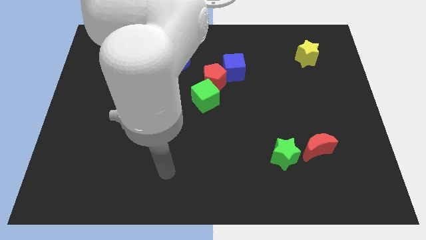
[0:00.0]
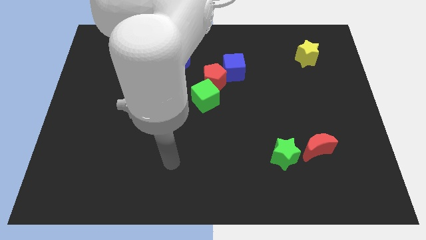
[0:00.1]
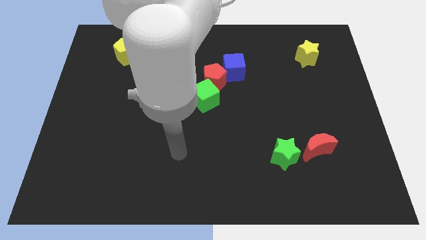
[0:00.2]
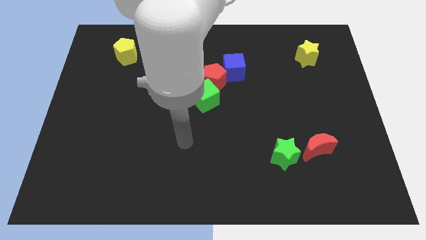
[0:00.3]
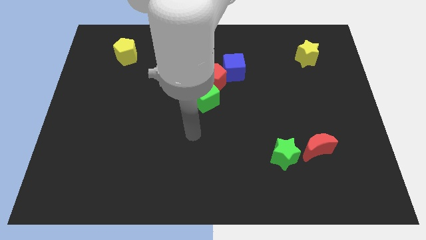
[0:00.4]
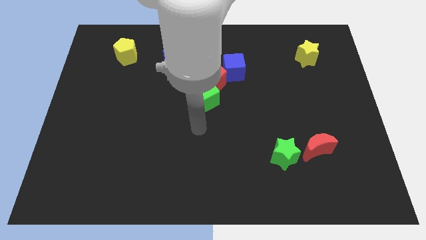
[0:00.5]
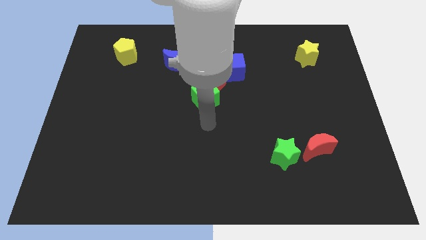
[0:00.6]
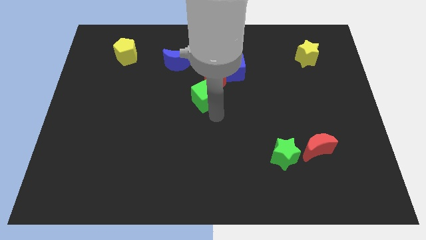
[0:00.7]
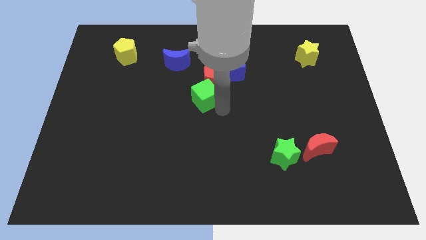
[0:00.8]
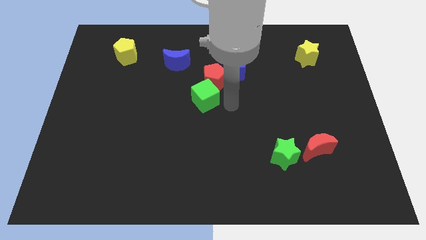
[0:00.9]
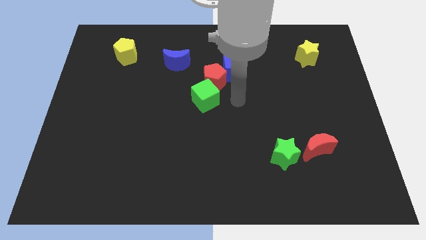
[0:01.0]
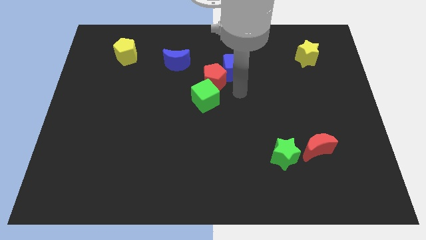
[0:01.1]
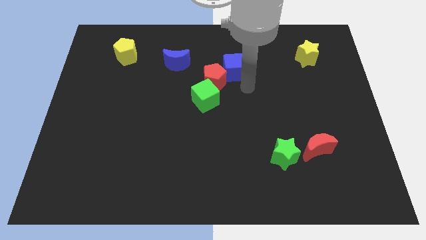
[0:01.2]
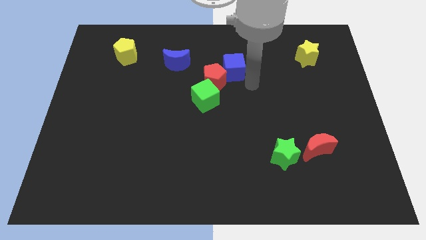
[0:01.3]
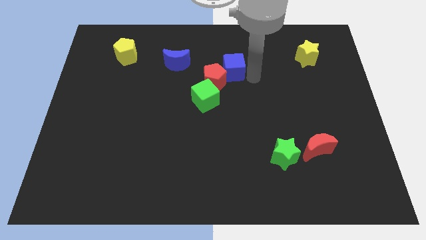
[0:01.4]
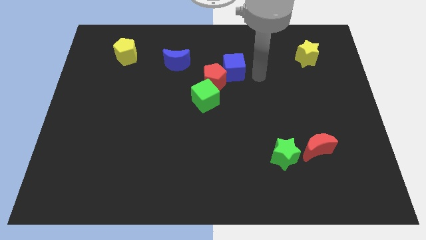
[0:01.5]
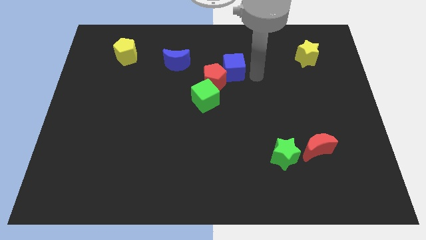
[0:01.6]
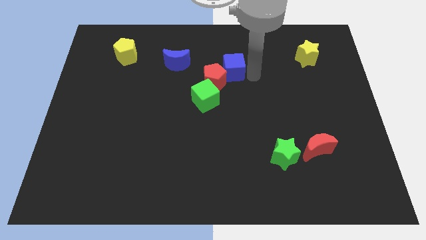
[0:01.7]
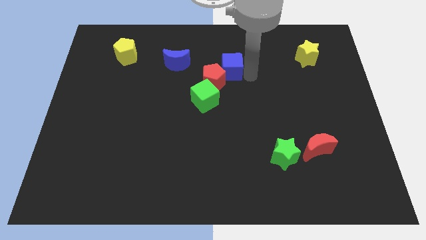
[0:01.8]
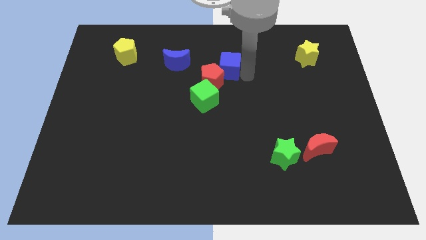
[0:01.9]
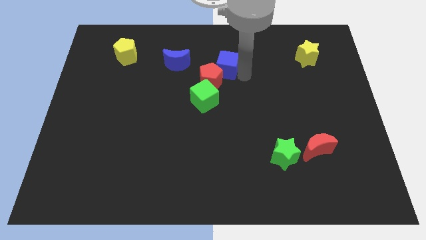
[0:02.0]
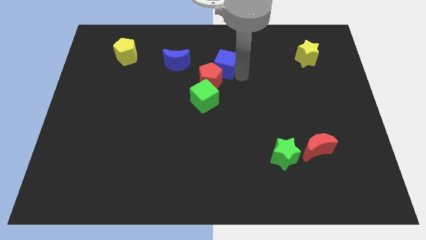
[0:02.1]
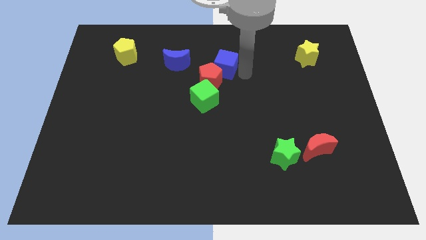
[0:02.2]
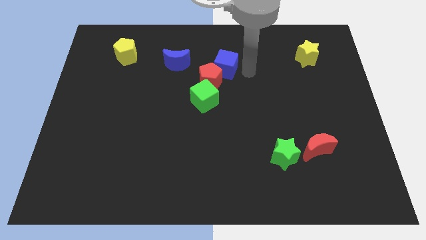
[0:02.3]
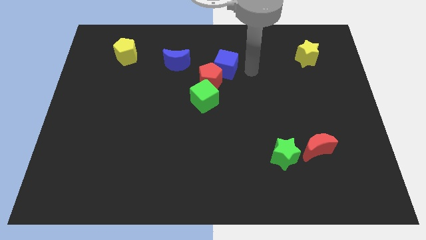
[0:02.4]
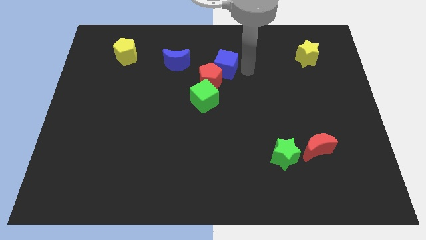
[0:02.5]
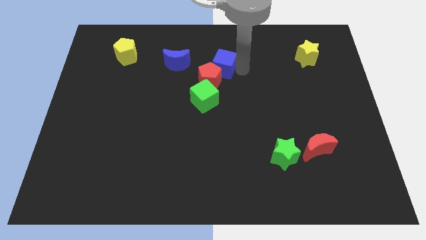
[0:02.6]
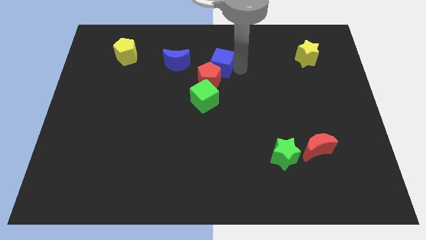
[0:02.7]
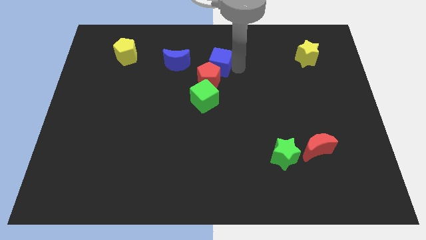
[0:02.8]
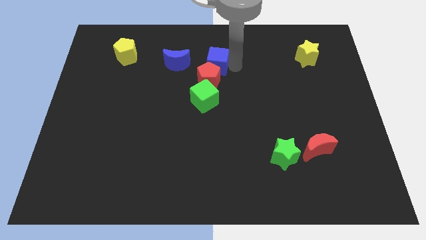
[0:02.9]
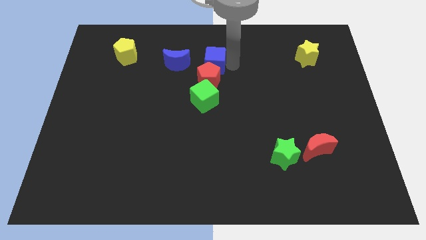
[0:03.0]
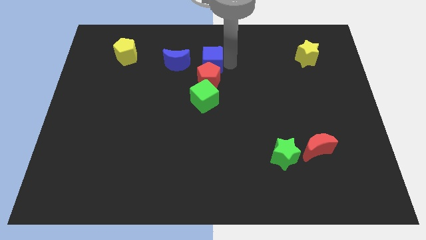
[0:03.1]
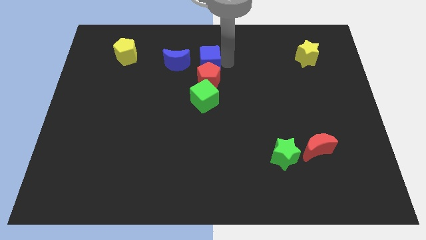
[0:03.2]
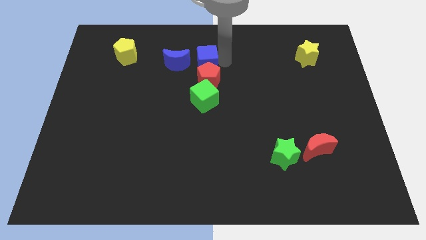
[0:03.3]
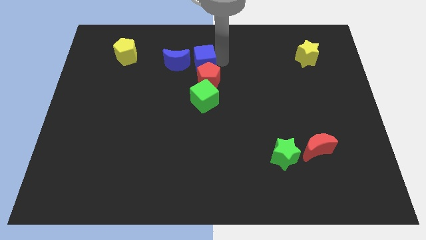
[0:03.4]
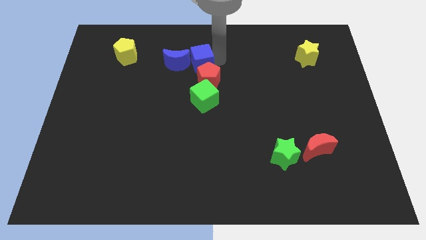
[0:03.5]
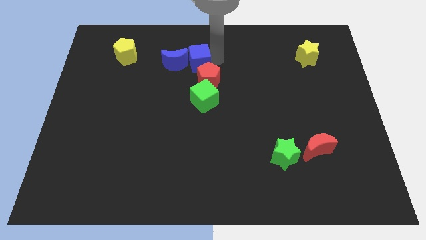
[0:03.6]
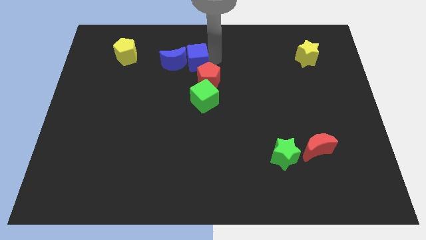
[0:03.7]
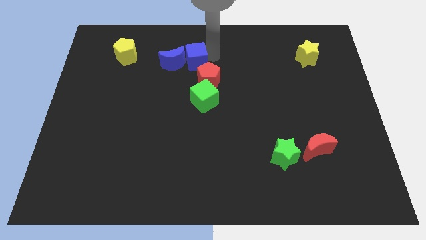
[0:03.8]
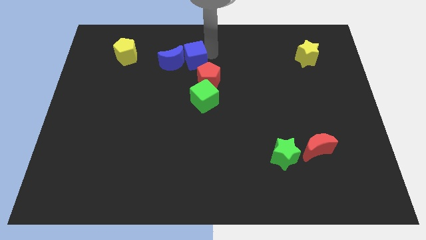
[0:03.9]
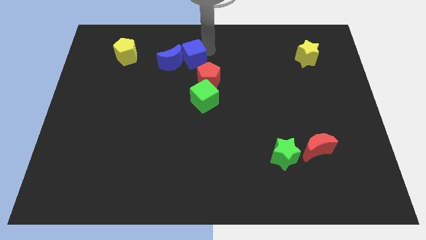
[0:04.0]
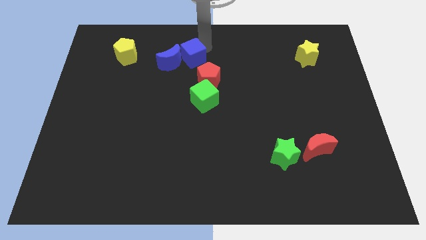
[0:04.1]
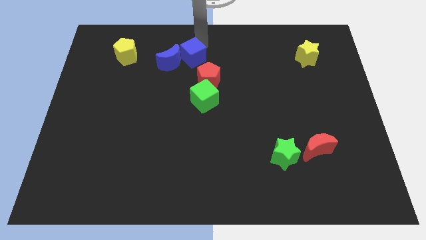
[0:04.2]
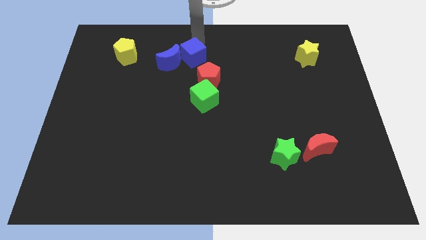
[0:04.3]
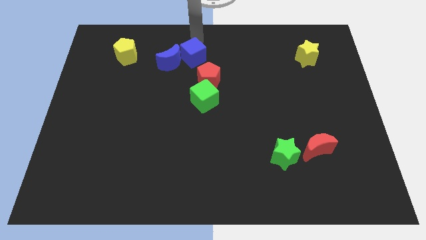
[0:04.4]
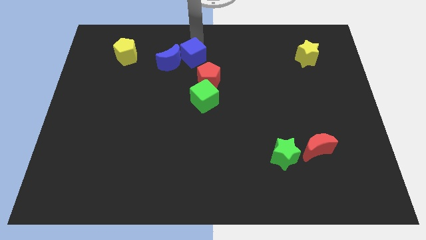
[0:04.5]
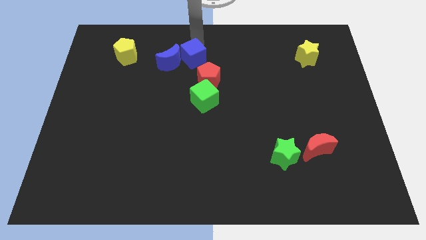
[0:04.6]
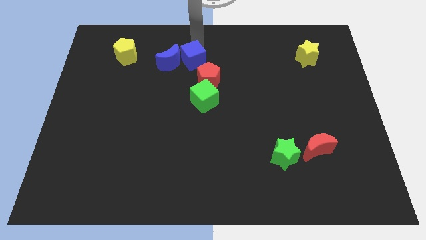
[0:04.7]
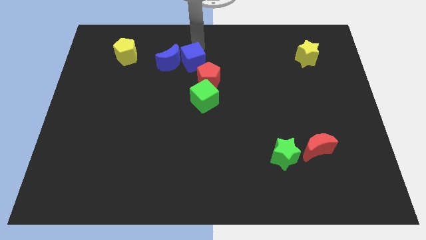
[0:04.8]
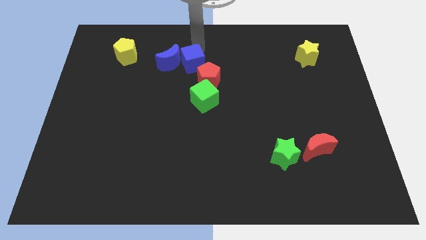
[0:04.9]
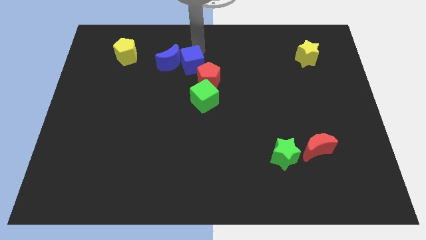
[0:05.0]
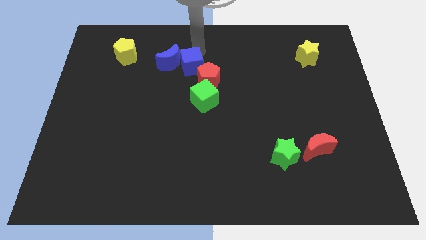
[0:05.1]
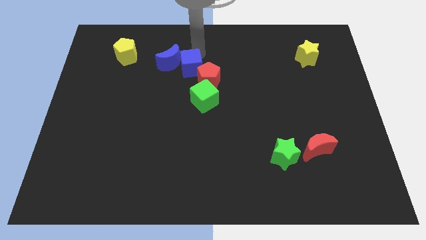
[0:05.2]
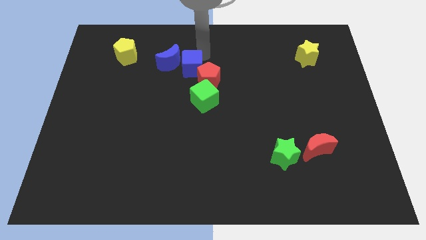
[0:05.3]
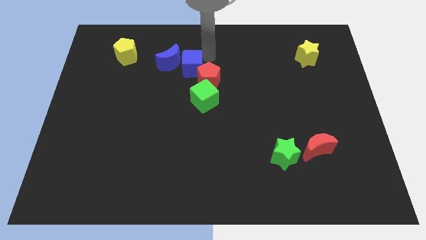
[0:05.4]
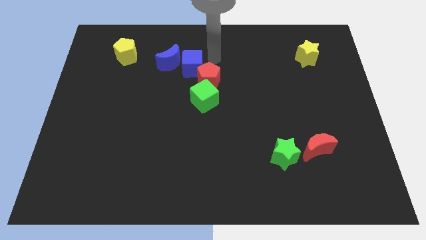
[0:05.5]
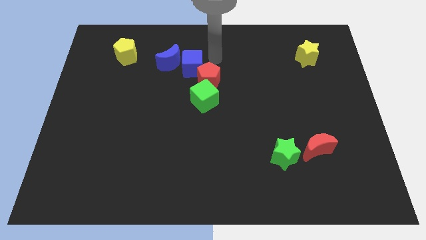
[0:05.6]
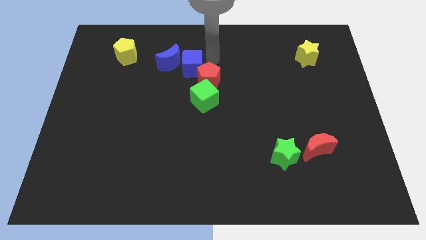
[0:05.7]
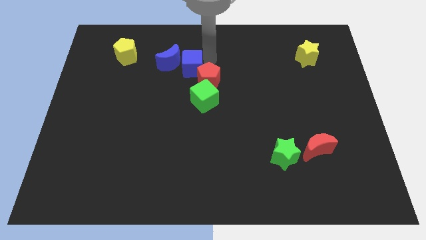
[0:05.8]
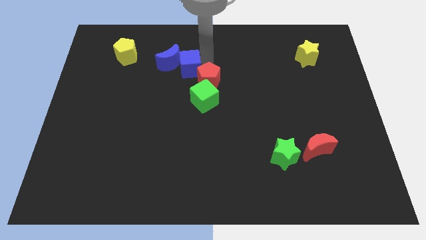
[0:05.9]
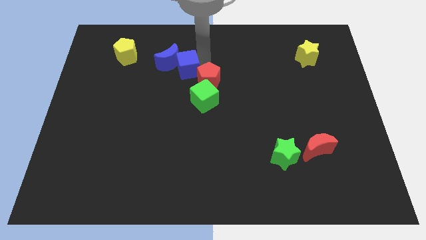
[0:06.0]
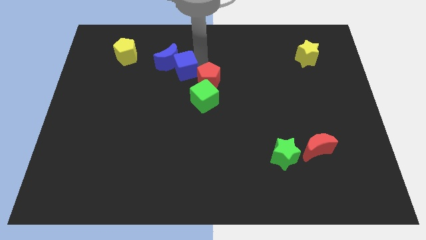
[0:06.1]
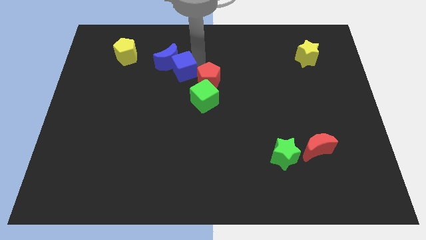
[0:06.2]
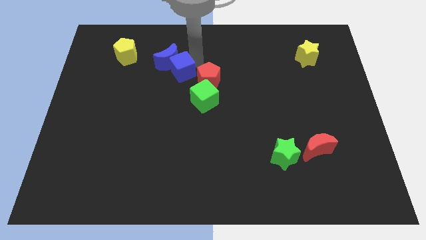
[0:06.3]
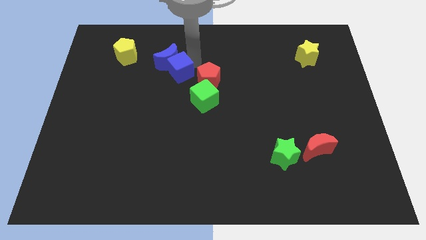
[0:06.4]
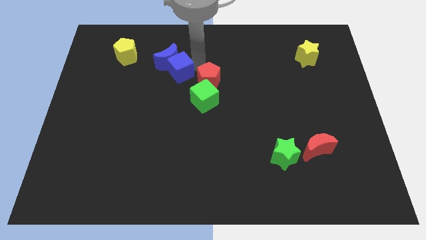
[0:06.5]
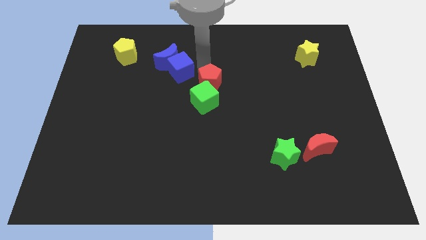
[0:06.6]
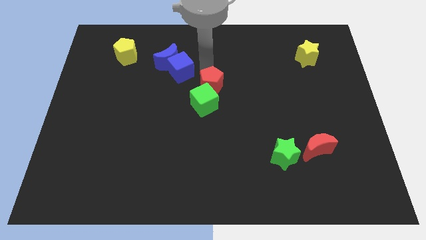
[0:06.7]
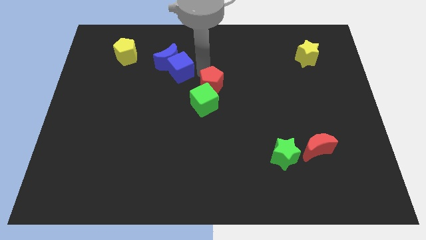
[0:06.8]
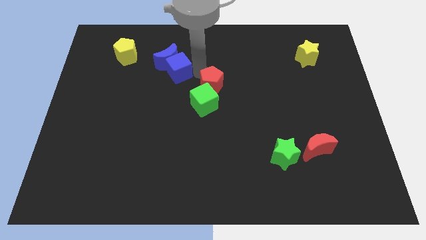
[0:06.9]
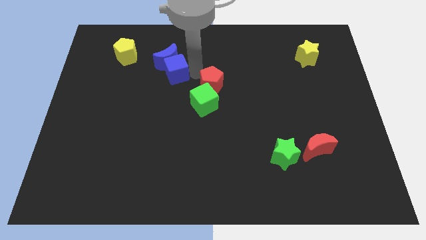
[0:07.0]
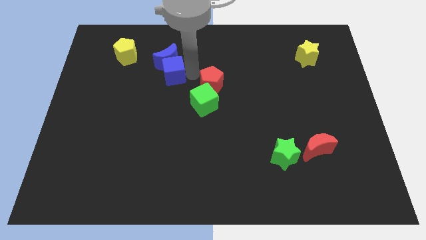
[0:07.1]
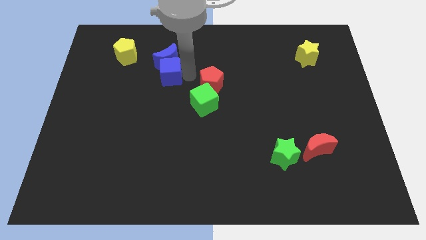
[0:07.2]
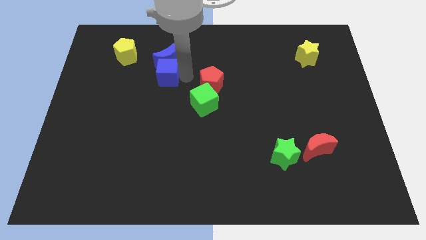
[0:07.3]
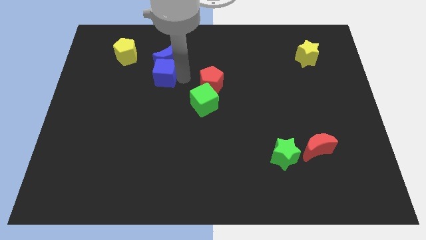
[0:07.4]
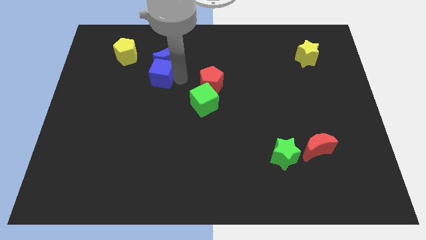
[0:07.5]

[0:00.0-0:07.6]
slide the blue cube to the bottom right side of the yellow pentagon
